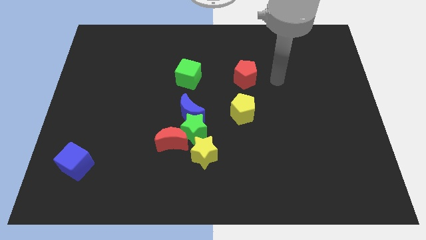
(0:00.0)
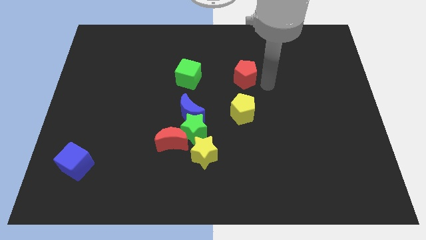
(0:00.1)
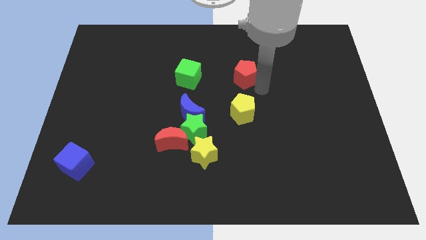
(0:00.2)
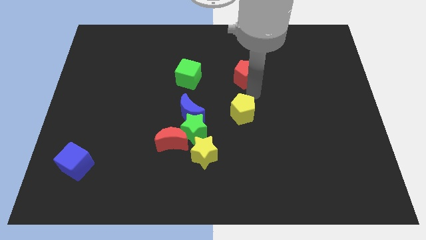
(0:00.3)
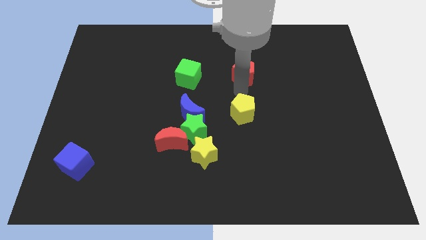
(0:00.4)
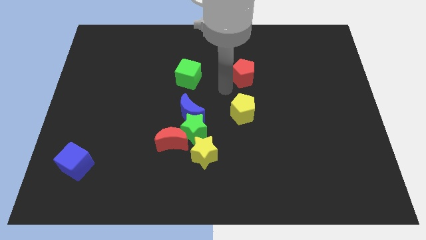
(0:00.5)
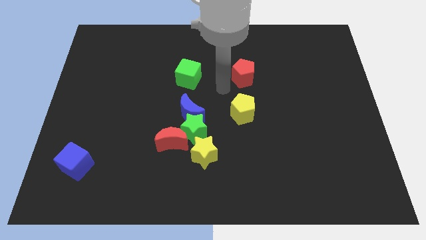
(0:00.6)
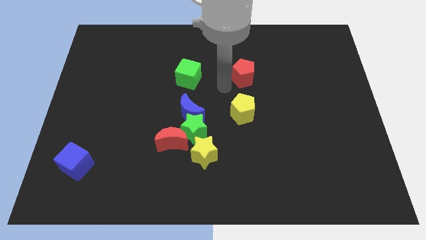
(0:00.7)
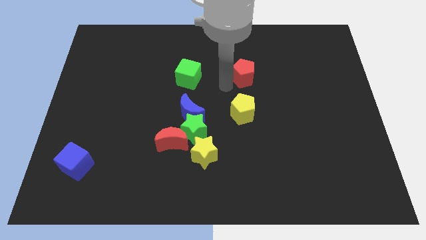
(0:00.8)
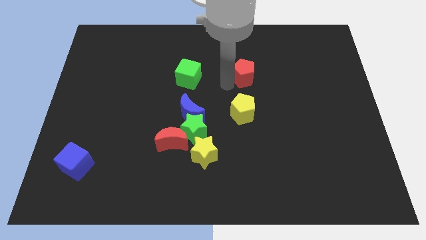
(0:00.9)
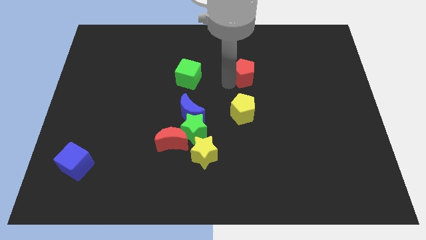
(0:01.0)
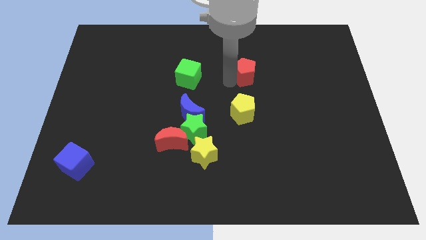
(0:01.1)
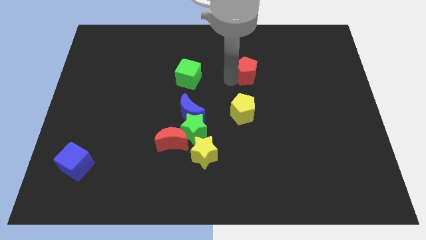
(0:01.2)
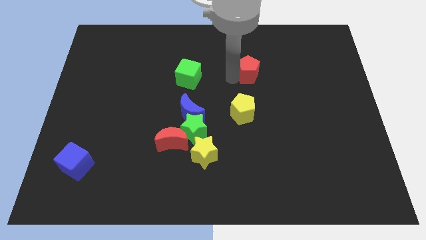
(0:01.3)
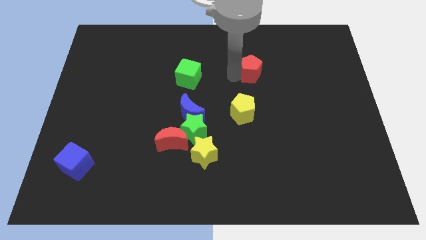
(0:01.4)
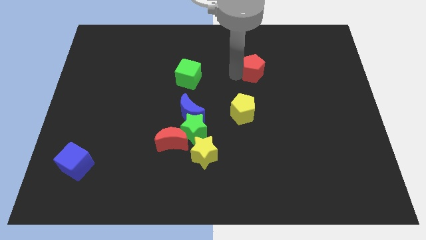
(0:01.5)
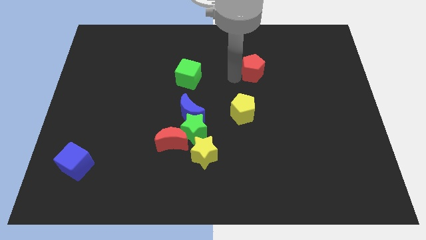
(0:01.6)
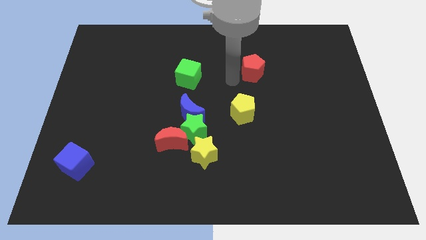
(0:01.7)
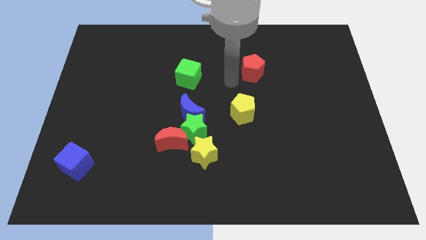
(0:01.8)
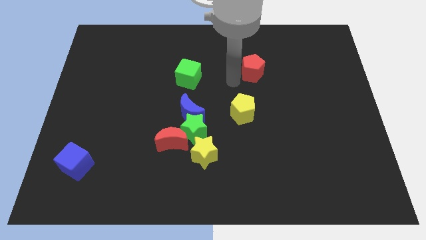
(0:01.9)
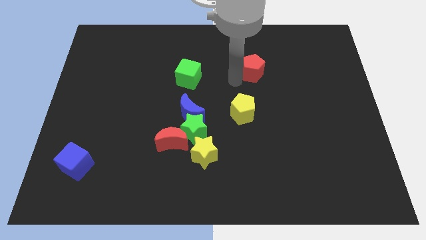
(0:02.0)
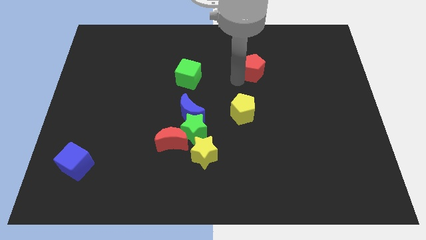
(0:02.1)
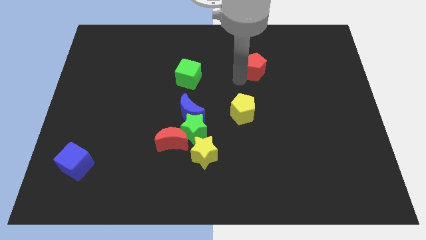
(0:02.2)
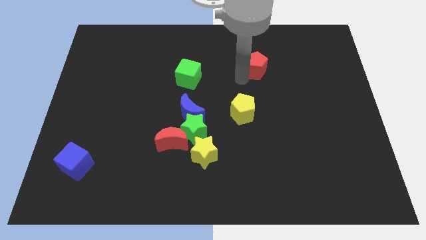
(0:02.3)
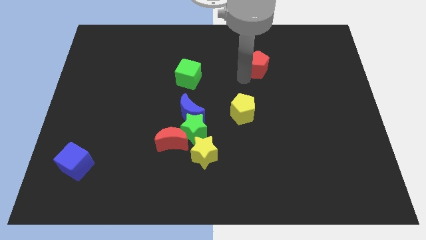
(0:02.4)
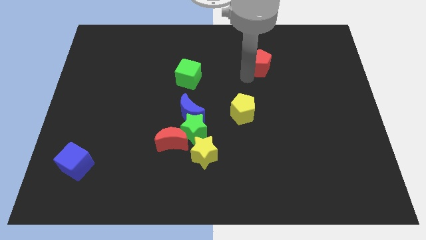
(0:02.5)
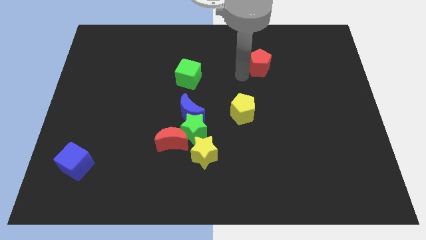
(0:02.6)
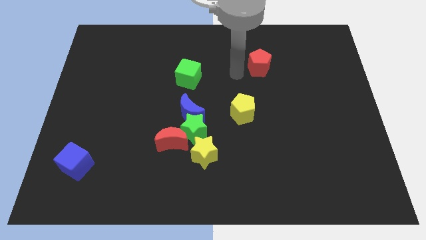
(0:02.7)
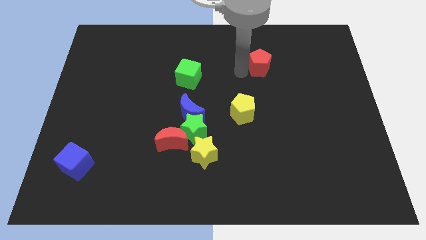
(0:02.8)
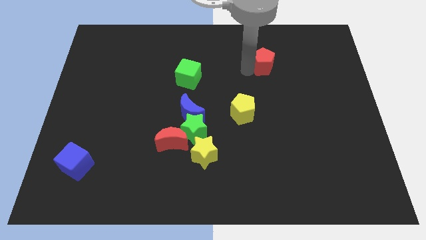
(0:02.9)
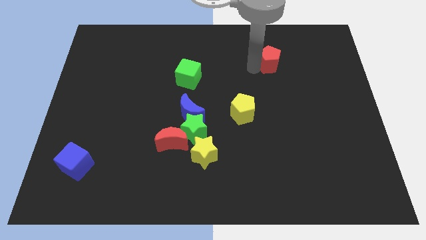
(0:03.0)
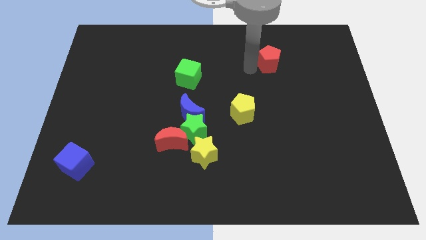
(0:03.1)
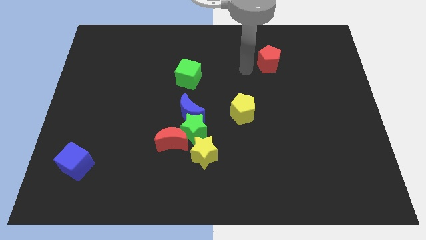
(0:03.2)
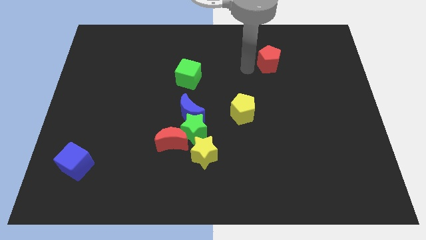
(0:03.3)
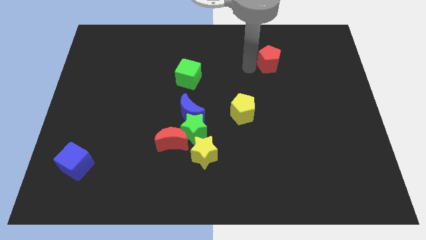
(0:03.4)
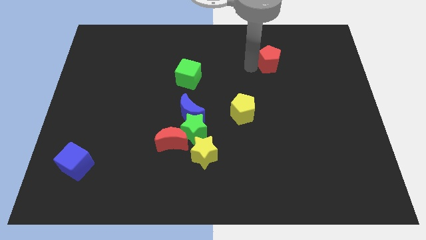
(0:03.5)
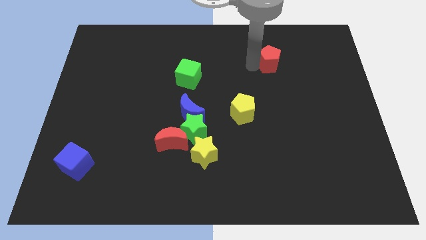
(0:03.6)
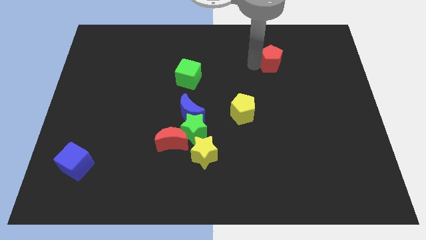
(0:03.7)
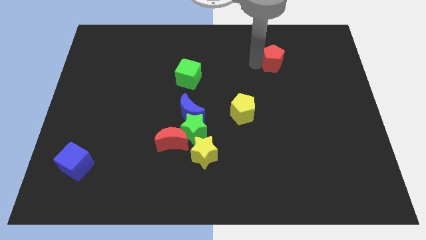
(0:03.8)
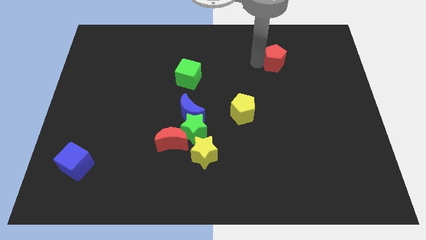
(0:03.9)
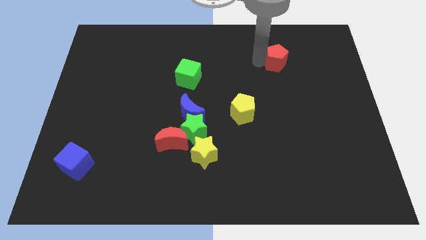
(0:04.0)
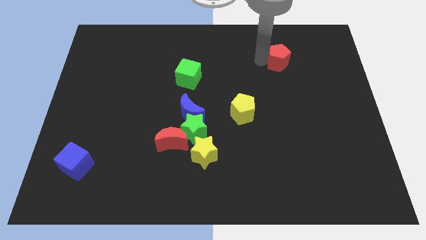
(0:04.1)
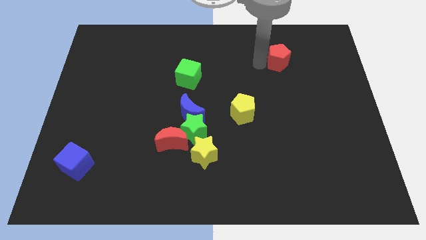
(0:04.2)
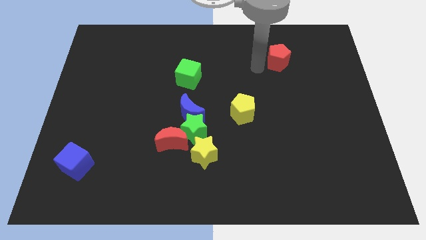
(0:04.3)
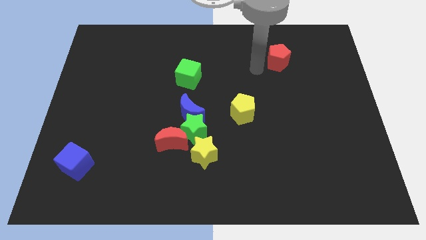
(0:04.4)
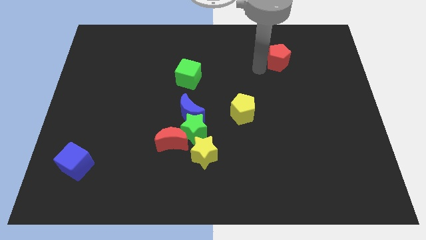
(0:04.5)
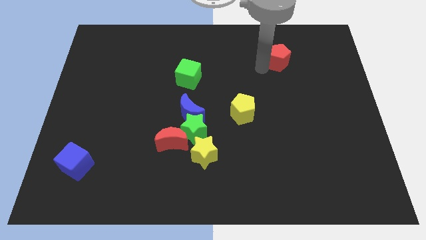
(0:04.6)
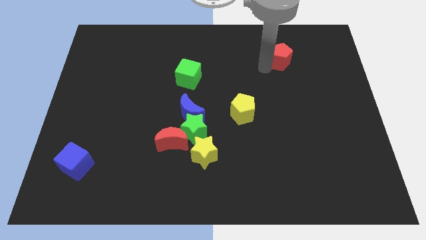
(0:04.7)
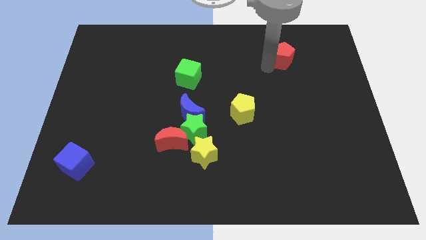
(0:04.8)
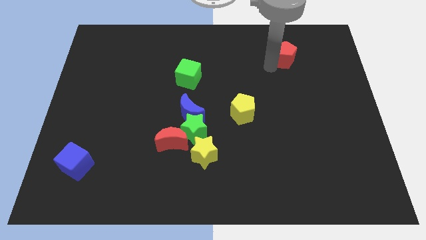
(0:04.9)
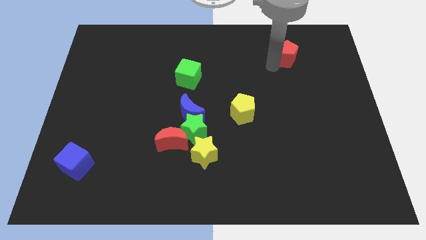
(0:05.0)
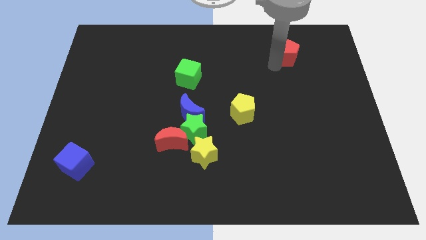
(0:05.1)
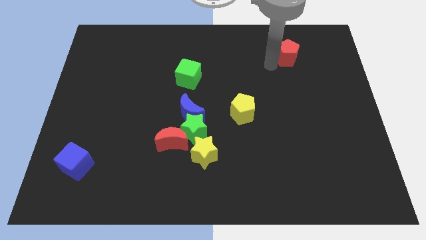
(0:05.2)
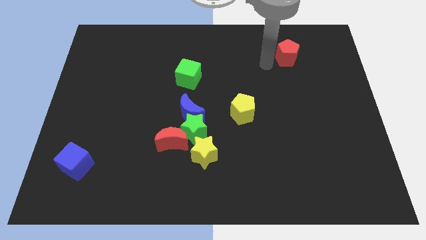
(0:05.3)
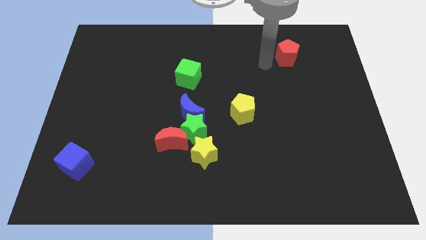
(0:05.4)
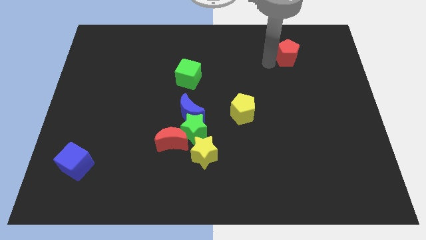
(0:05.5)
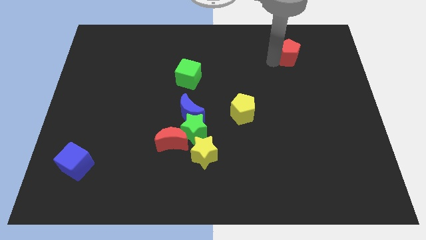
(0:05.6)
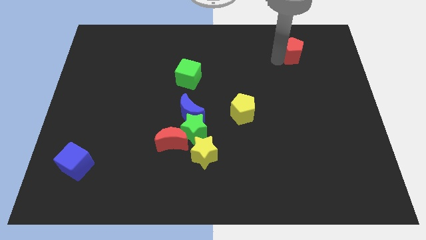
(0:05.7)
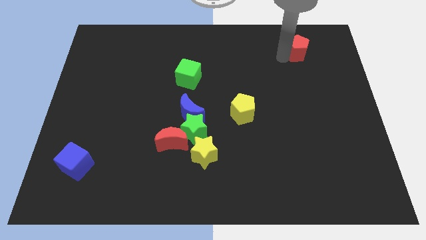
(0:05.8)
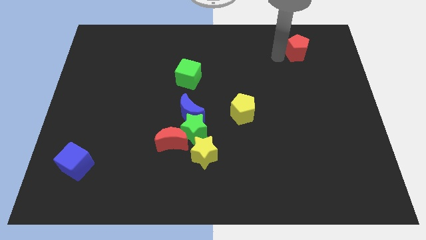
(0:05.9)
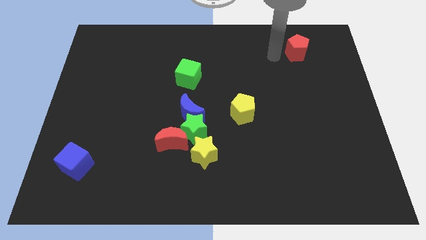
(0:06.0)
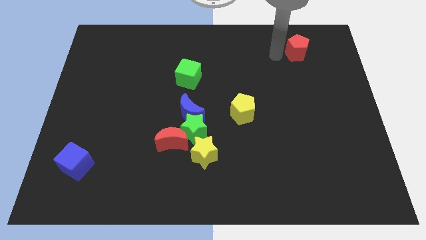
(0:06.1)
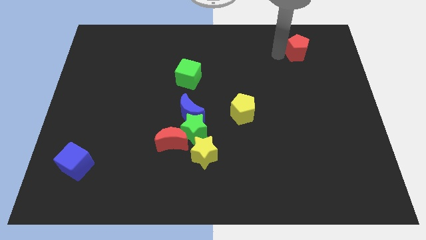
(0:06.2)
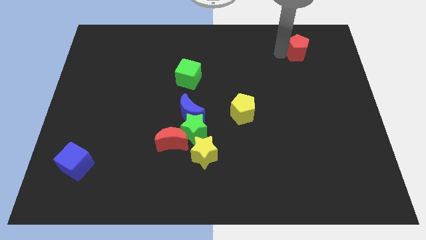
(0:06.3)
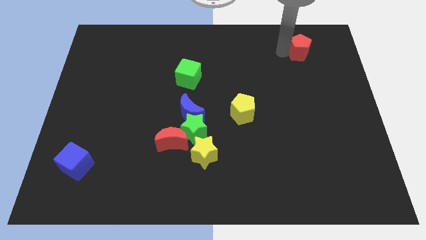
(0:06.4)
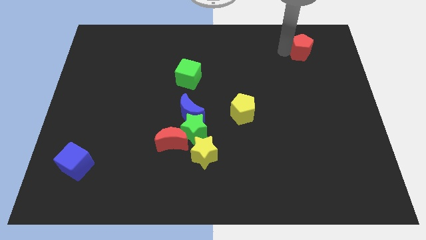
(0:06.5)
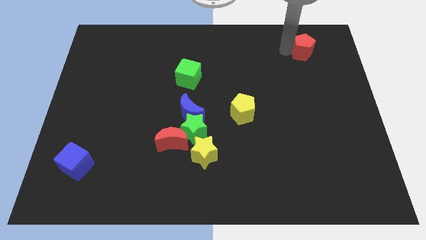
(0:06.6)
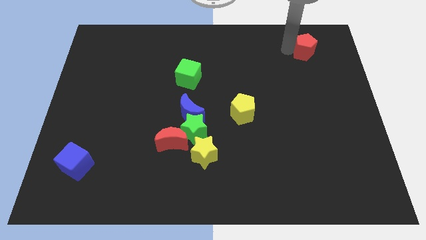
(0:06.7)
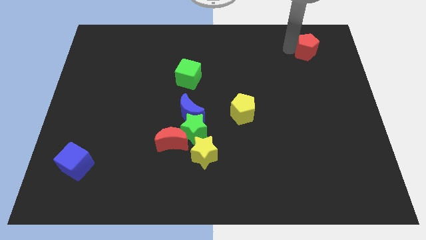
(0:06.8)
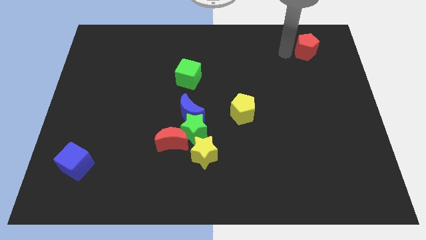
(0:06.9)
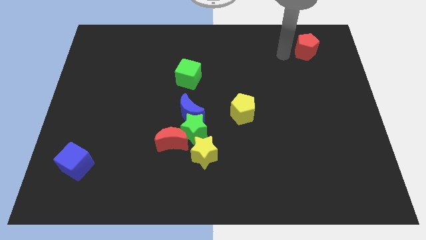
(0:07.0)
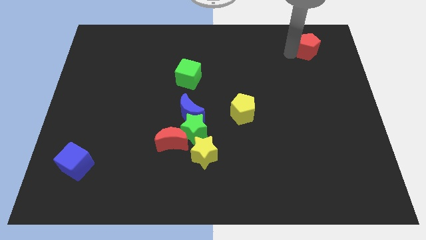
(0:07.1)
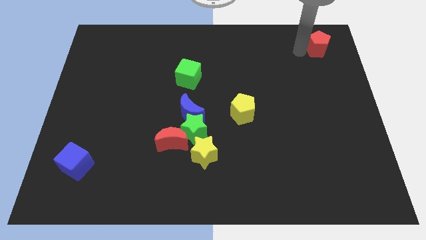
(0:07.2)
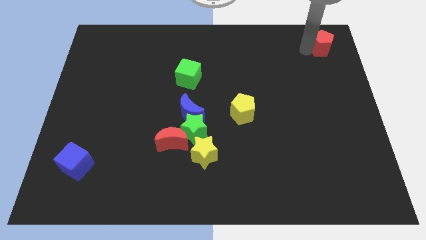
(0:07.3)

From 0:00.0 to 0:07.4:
push the red pentagon to the upper right corner
